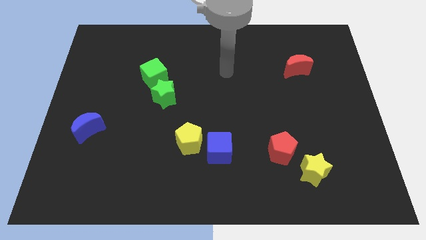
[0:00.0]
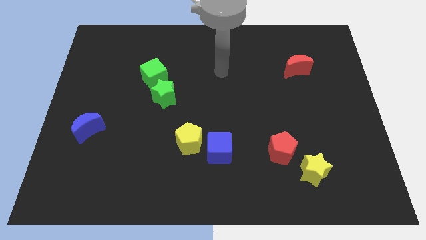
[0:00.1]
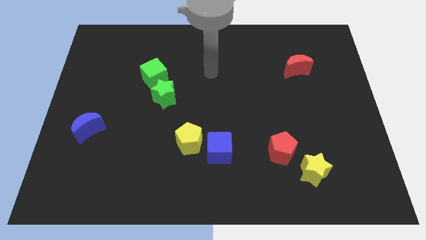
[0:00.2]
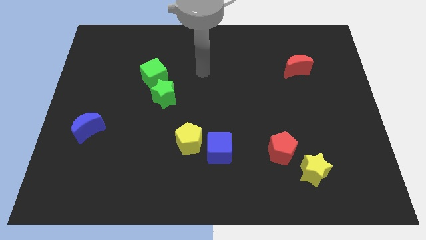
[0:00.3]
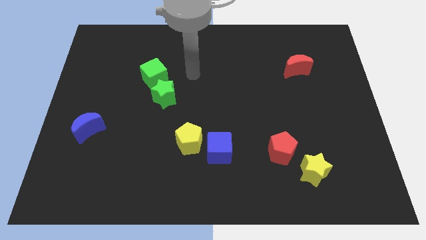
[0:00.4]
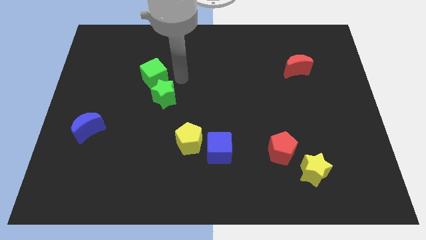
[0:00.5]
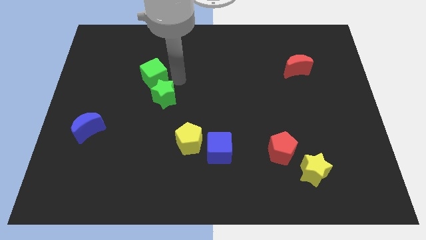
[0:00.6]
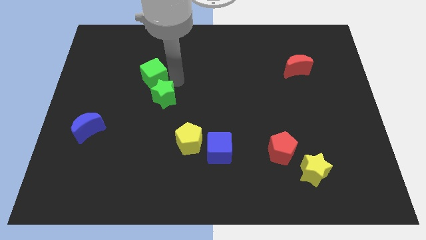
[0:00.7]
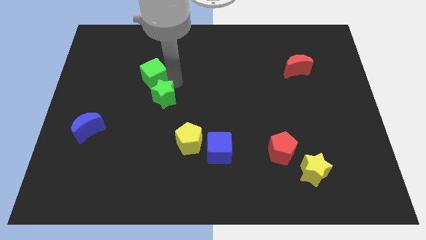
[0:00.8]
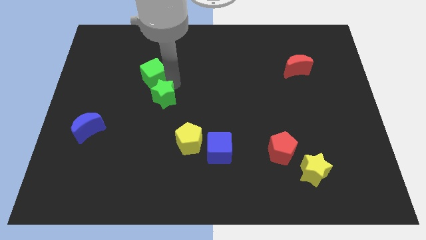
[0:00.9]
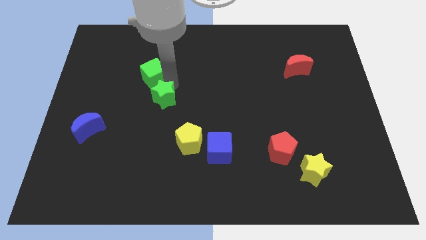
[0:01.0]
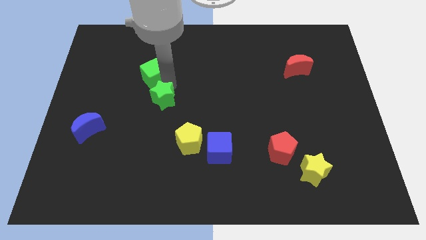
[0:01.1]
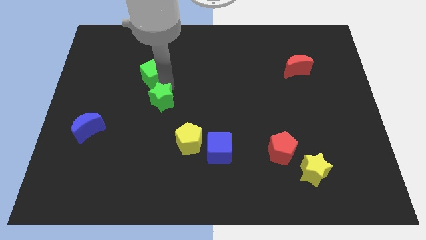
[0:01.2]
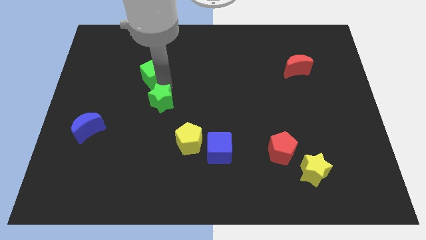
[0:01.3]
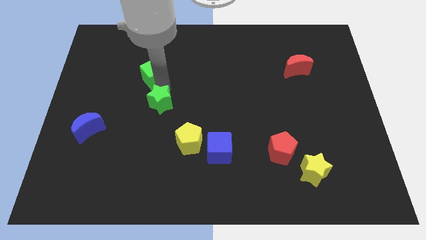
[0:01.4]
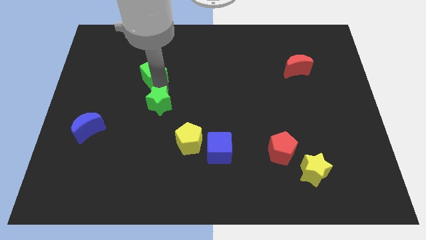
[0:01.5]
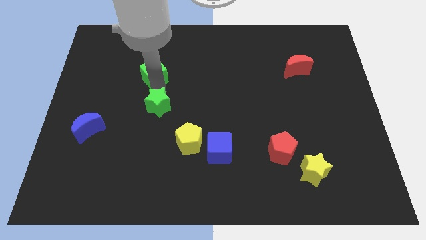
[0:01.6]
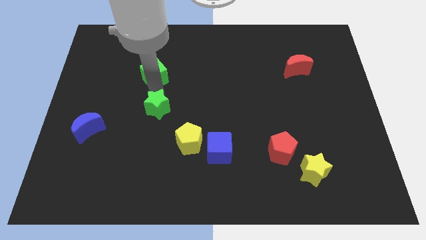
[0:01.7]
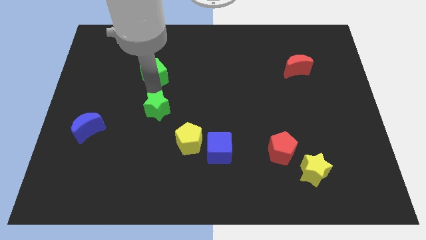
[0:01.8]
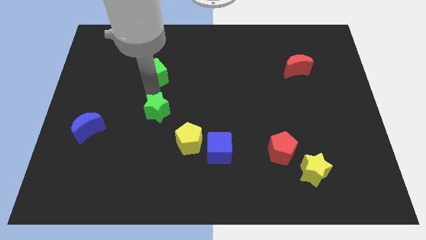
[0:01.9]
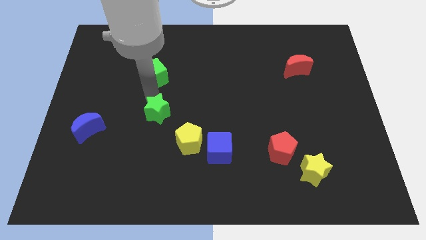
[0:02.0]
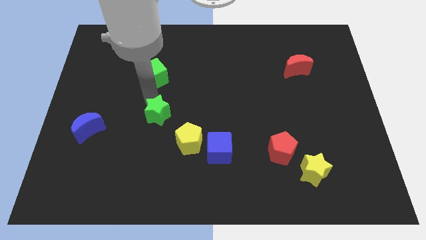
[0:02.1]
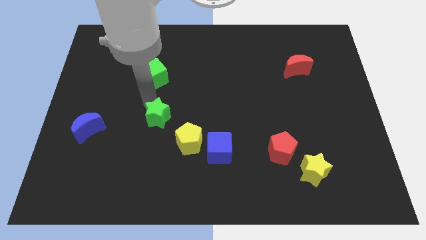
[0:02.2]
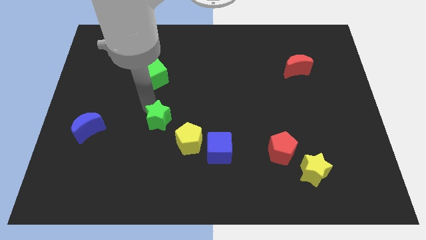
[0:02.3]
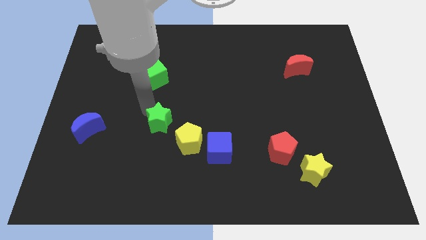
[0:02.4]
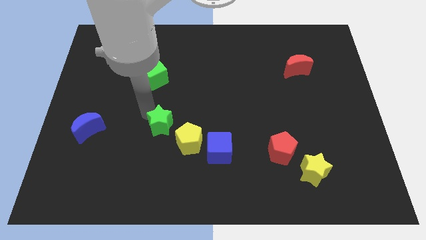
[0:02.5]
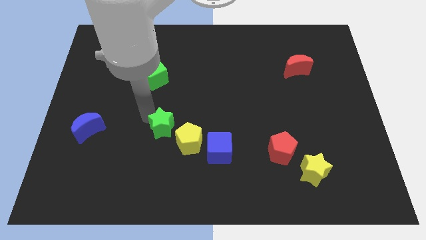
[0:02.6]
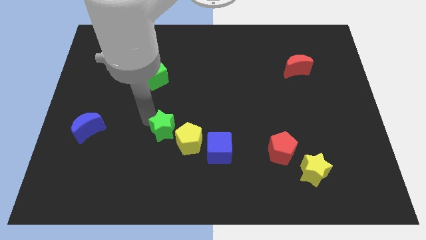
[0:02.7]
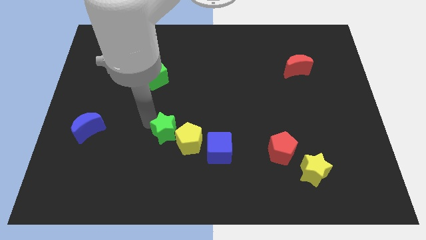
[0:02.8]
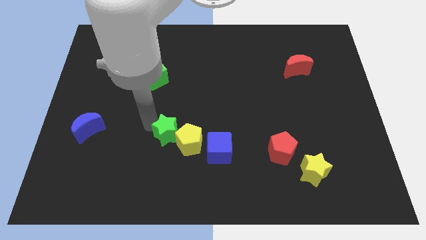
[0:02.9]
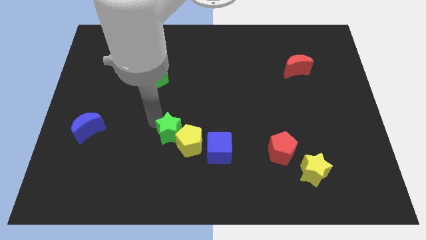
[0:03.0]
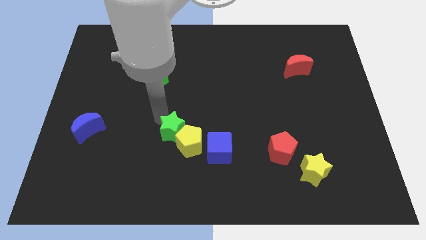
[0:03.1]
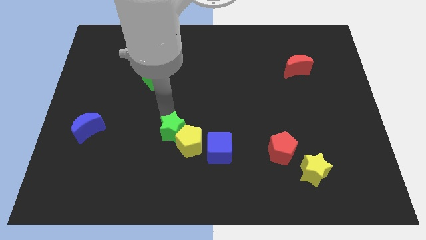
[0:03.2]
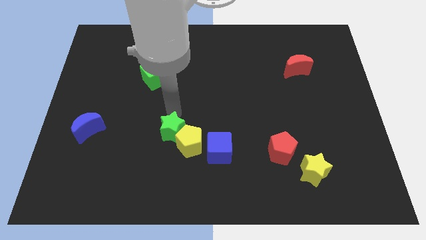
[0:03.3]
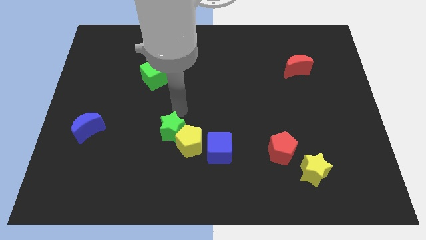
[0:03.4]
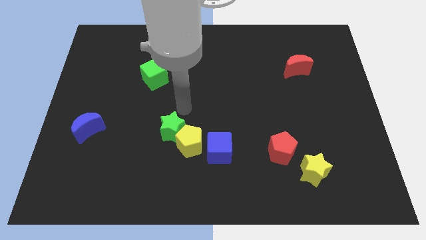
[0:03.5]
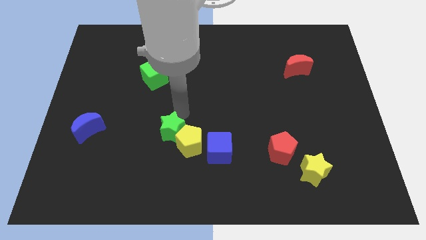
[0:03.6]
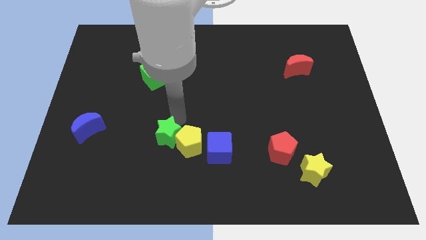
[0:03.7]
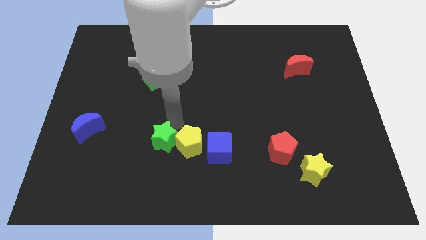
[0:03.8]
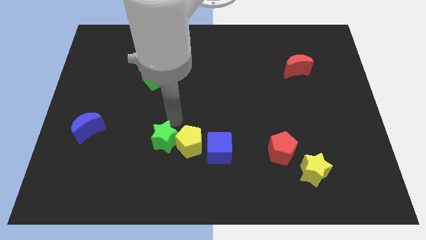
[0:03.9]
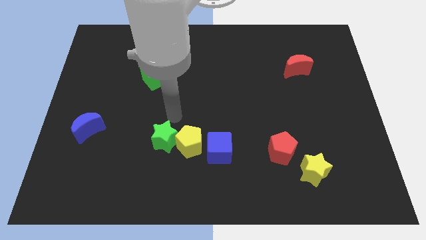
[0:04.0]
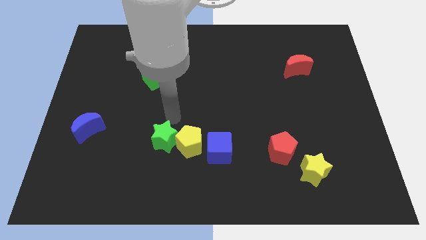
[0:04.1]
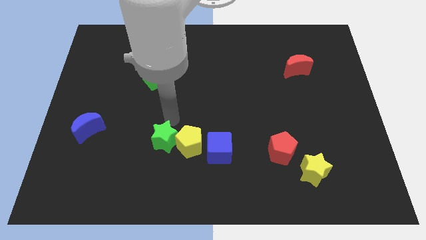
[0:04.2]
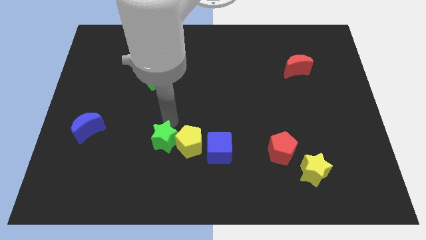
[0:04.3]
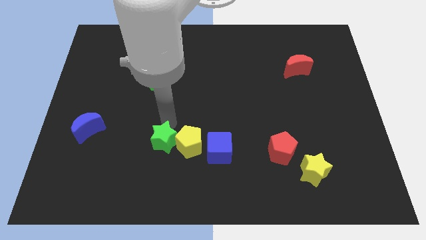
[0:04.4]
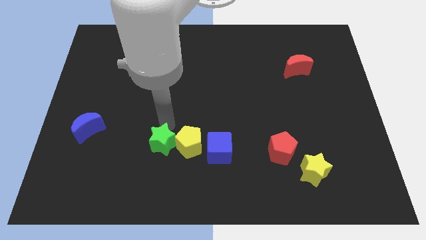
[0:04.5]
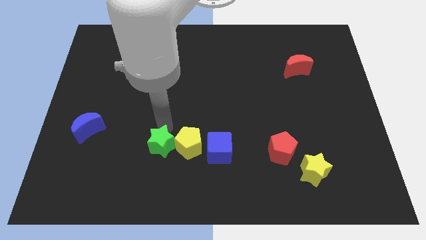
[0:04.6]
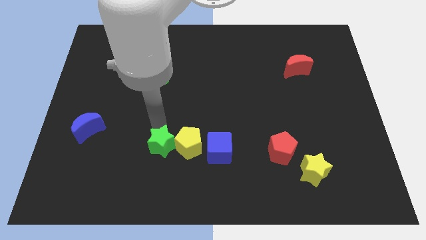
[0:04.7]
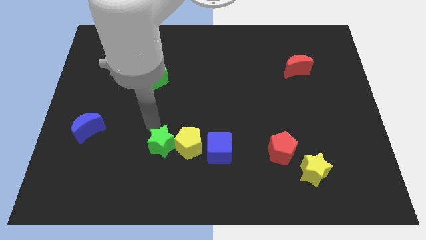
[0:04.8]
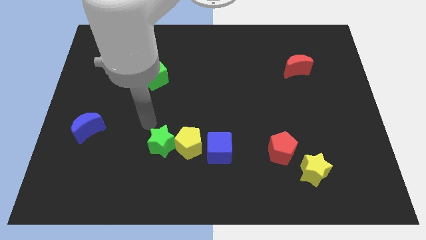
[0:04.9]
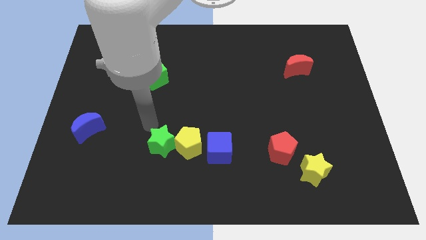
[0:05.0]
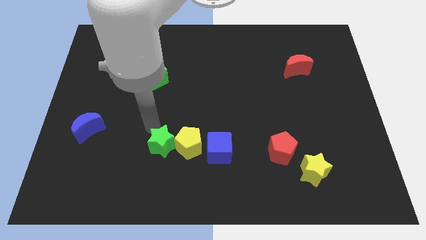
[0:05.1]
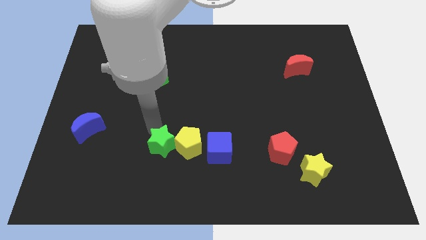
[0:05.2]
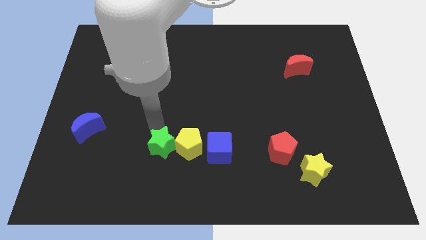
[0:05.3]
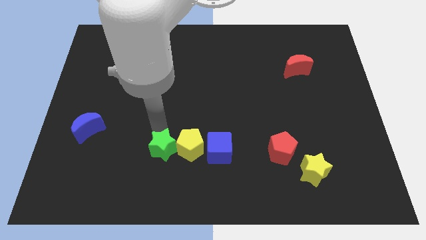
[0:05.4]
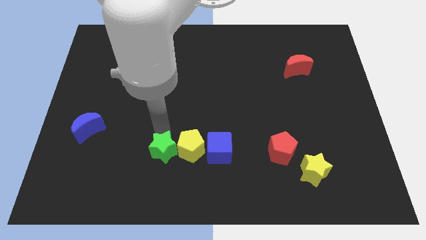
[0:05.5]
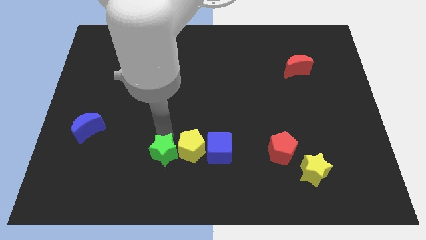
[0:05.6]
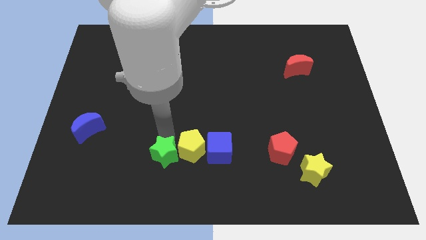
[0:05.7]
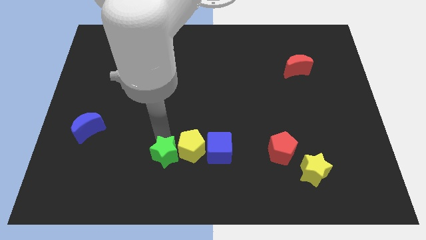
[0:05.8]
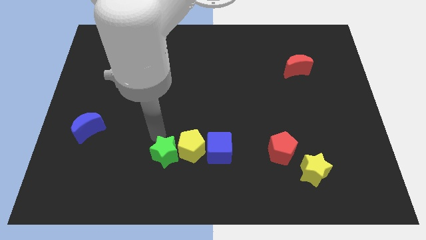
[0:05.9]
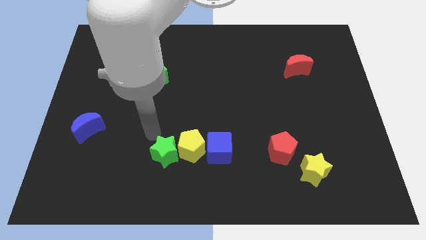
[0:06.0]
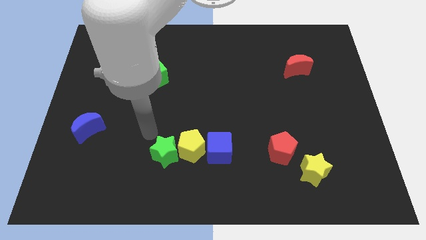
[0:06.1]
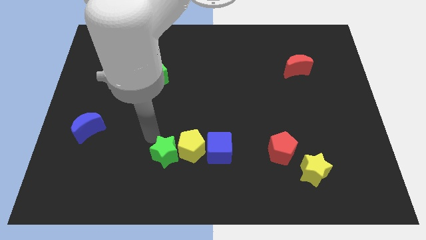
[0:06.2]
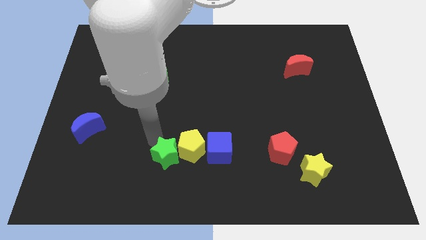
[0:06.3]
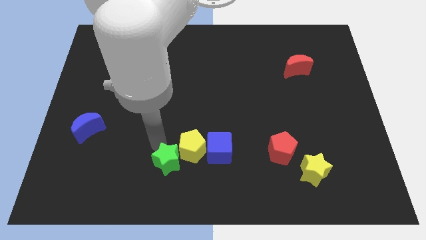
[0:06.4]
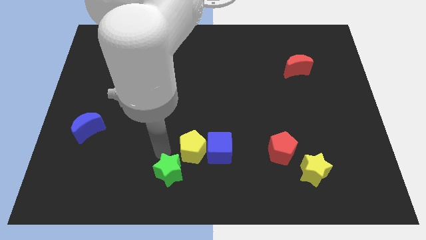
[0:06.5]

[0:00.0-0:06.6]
move the green star to the bottom side
